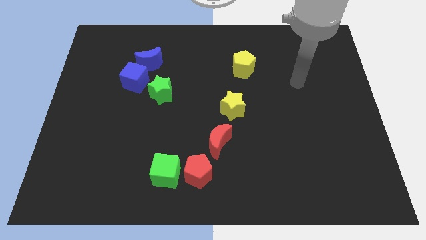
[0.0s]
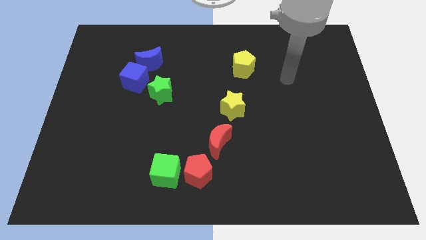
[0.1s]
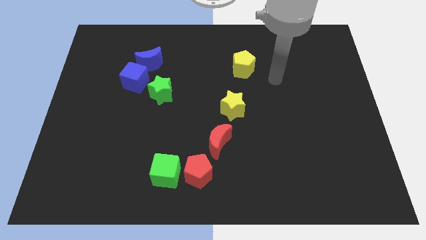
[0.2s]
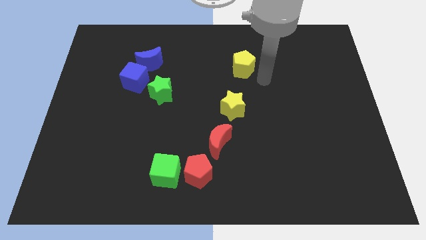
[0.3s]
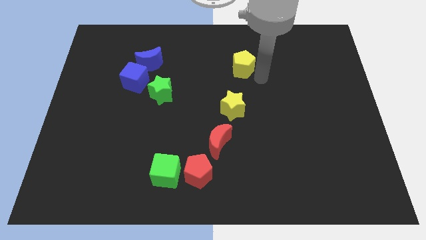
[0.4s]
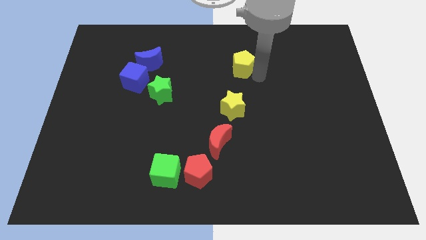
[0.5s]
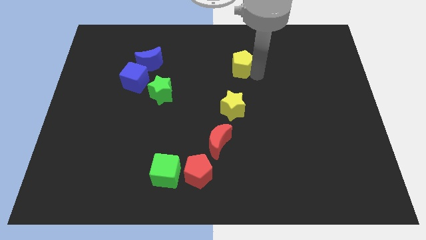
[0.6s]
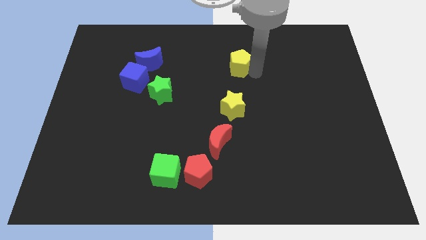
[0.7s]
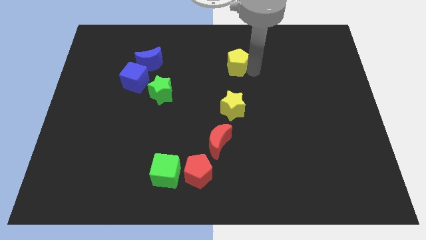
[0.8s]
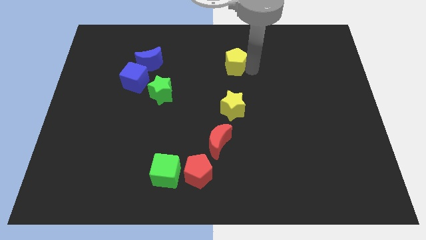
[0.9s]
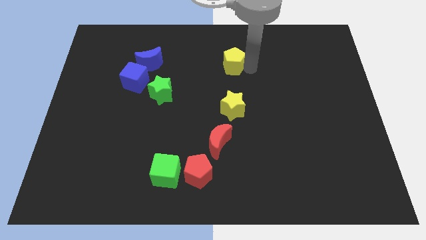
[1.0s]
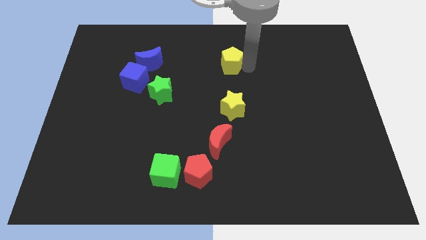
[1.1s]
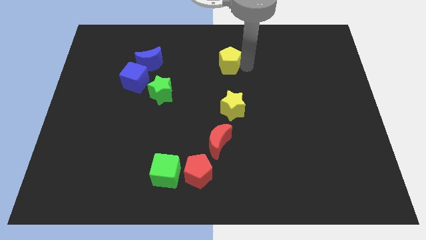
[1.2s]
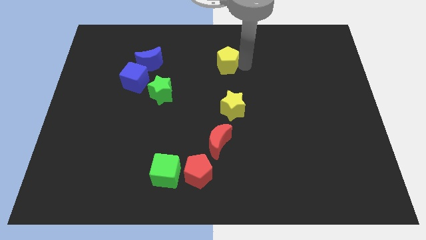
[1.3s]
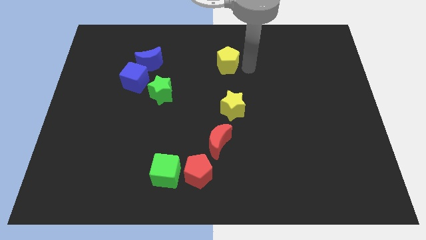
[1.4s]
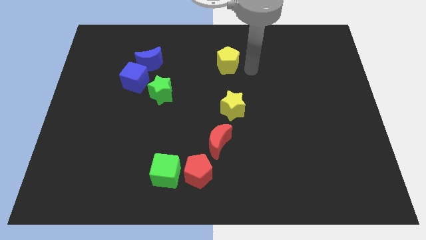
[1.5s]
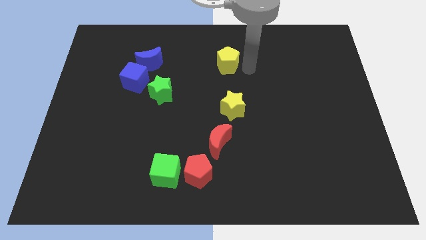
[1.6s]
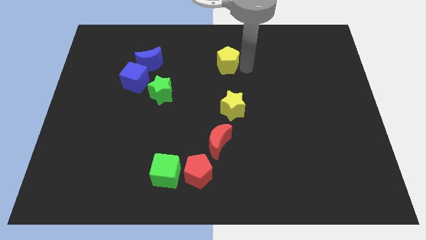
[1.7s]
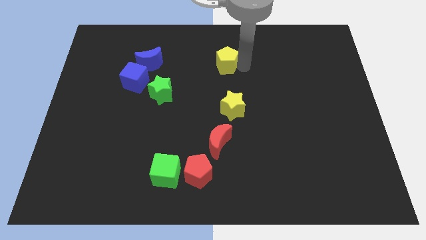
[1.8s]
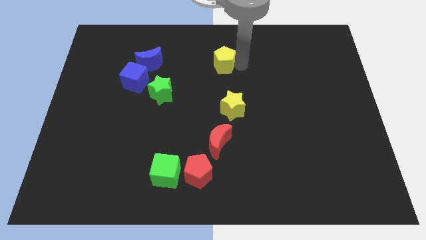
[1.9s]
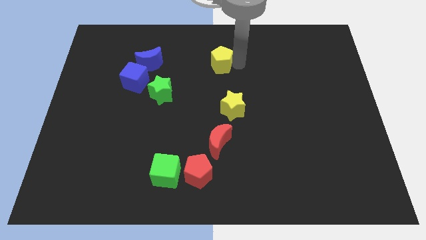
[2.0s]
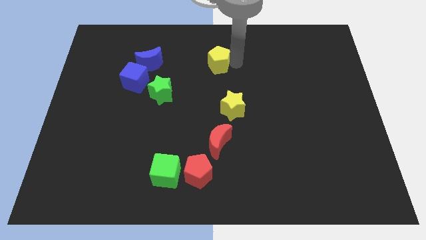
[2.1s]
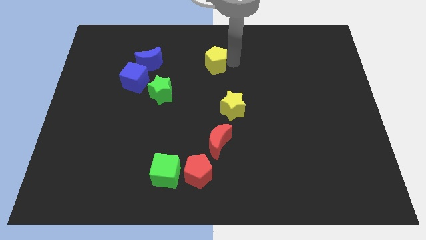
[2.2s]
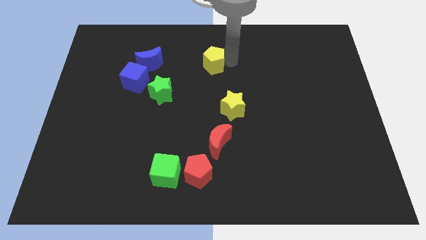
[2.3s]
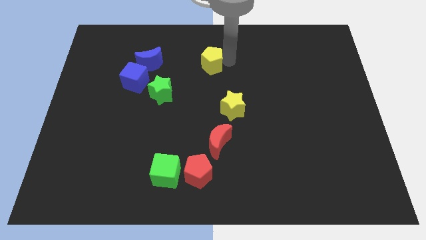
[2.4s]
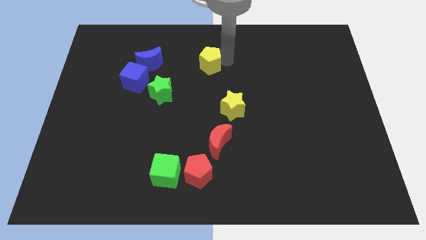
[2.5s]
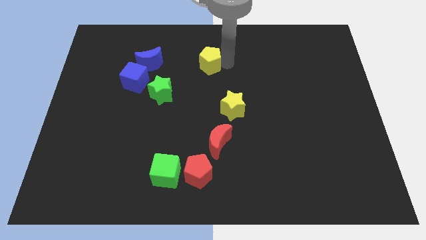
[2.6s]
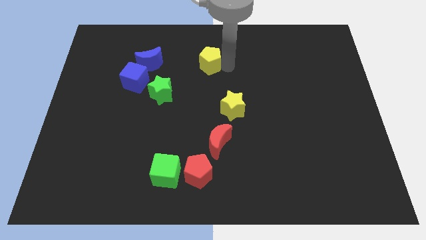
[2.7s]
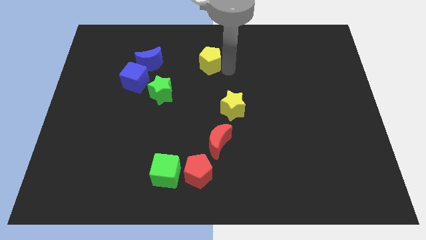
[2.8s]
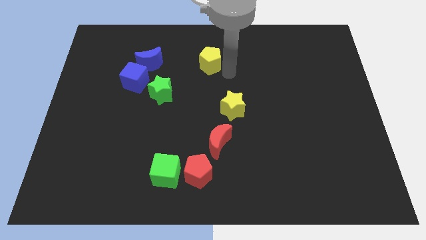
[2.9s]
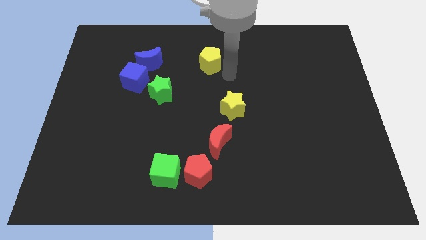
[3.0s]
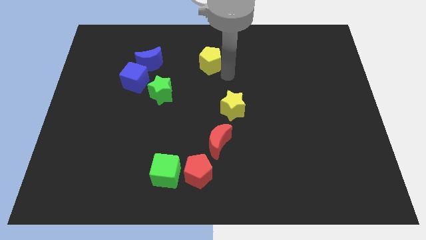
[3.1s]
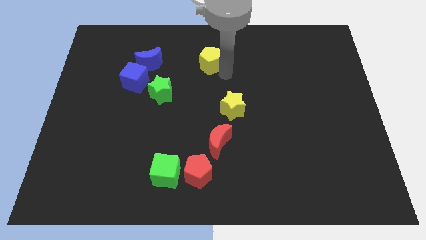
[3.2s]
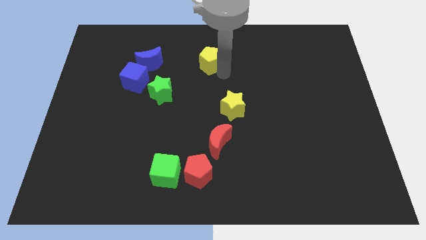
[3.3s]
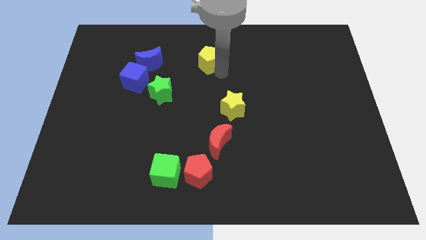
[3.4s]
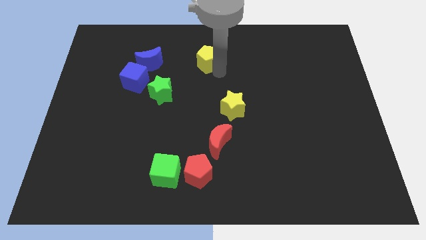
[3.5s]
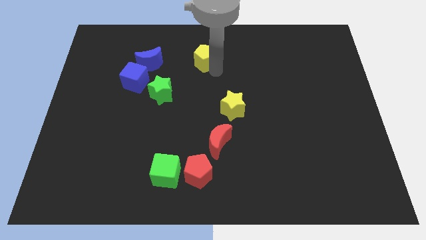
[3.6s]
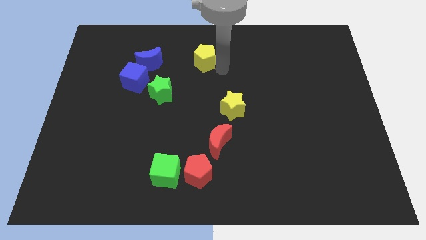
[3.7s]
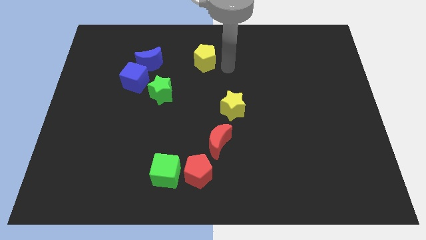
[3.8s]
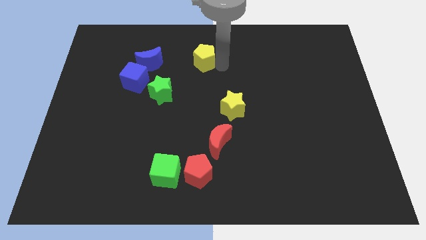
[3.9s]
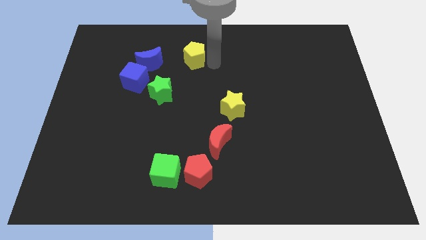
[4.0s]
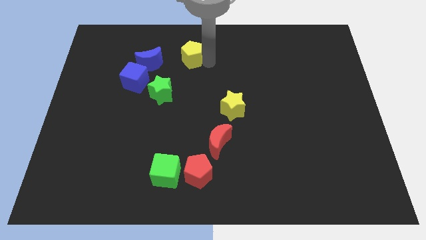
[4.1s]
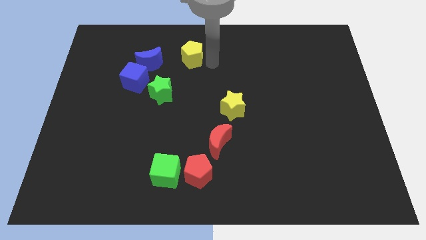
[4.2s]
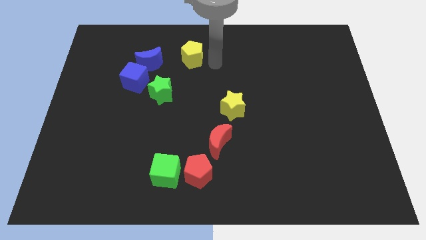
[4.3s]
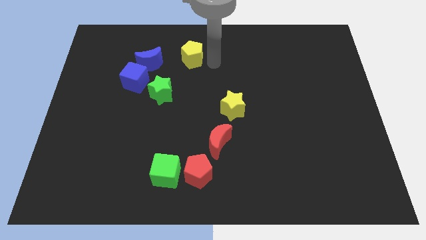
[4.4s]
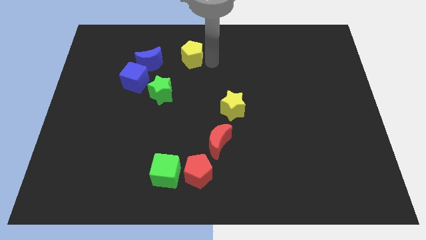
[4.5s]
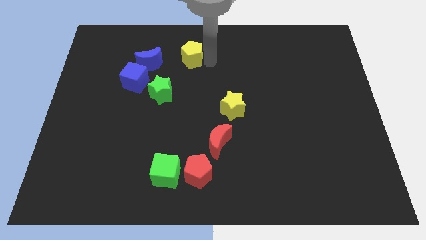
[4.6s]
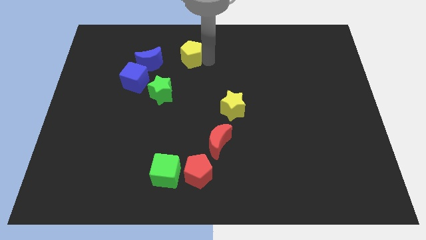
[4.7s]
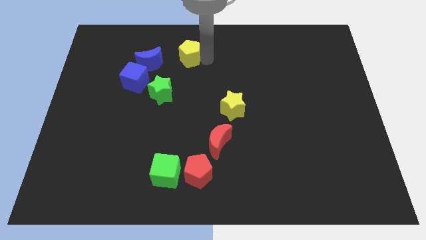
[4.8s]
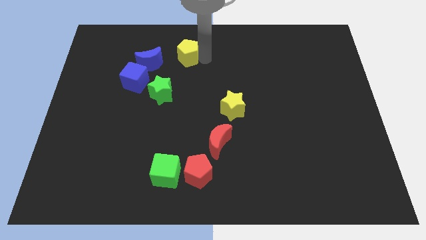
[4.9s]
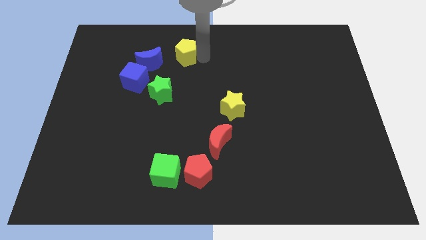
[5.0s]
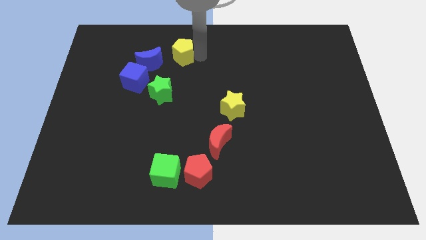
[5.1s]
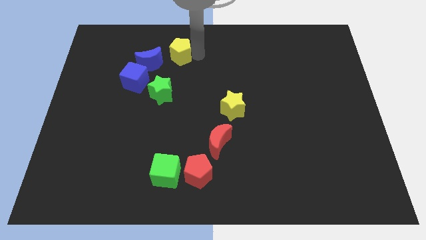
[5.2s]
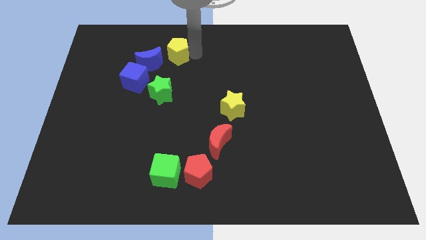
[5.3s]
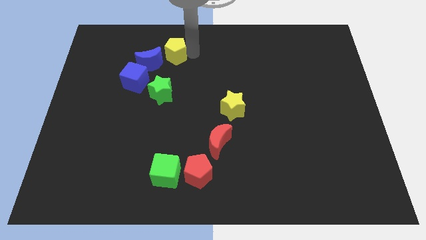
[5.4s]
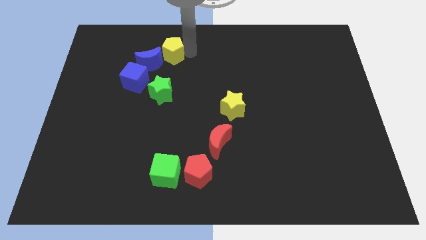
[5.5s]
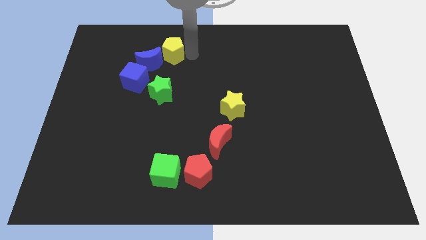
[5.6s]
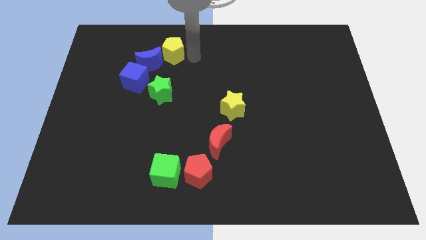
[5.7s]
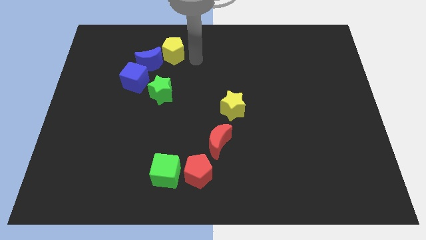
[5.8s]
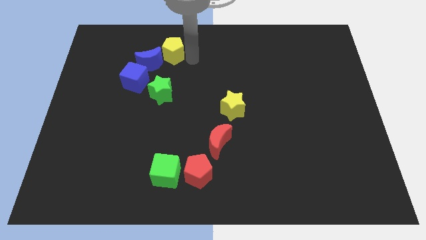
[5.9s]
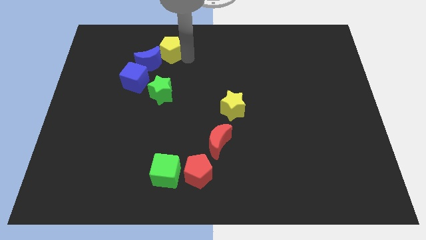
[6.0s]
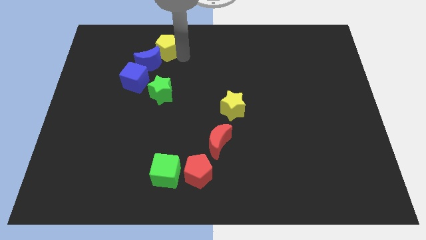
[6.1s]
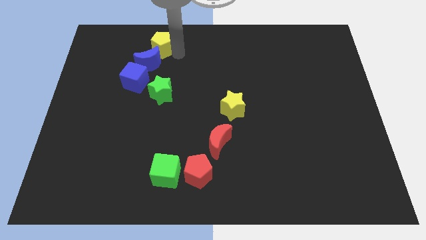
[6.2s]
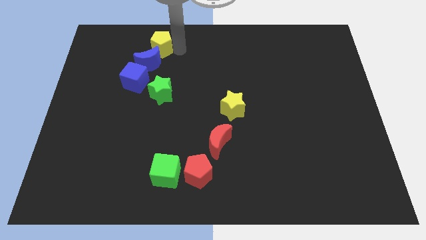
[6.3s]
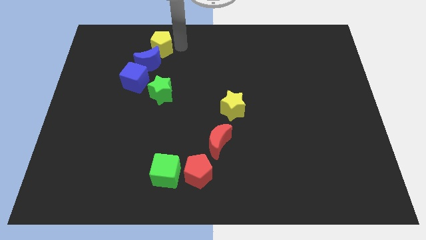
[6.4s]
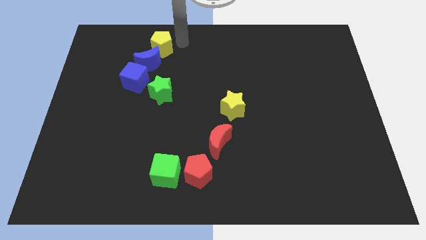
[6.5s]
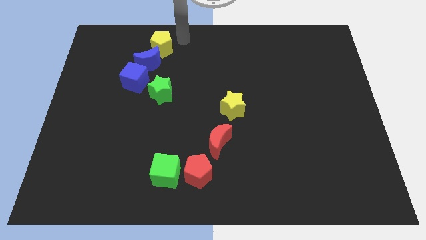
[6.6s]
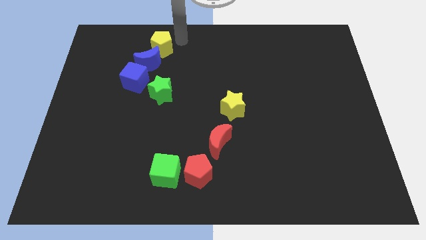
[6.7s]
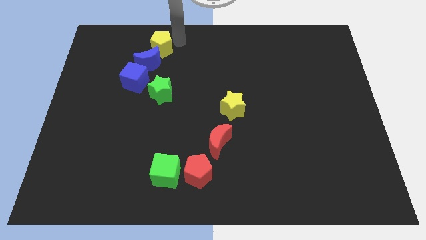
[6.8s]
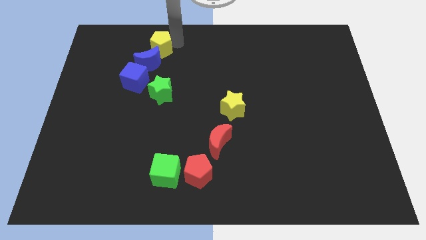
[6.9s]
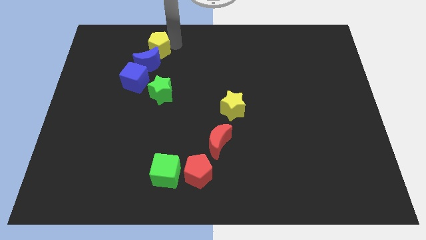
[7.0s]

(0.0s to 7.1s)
push the yellow pentagon left

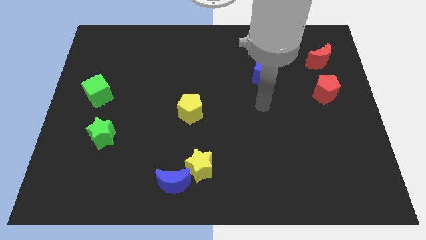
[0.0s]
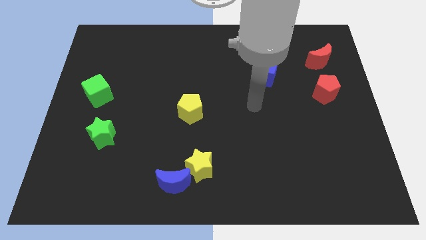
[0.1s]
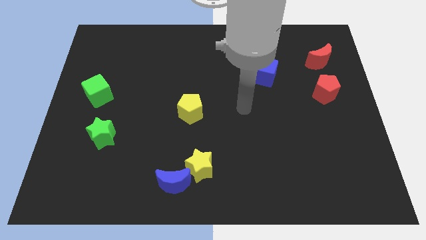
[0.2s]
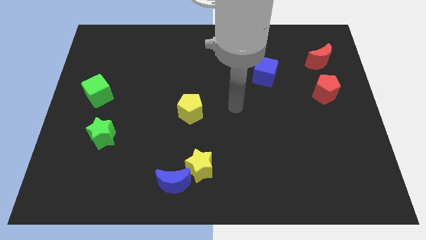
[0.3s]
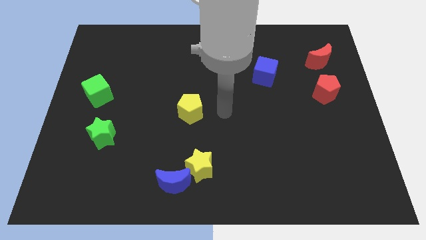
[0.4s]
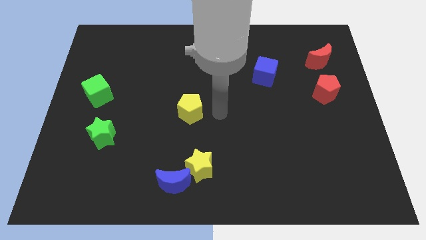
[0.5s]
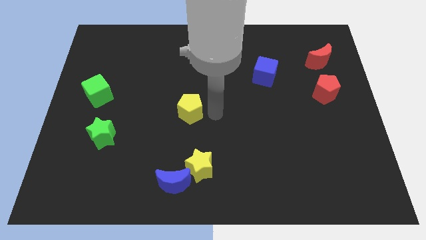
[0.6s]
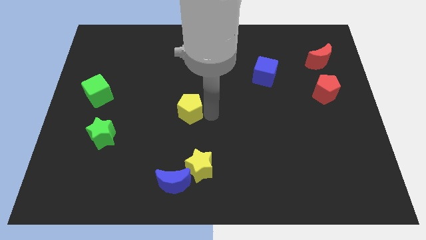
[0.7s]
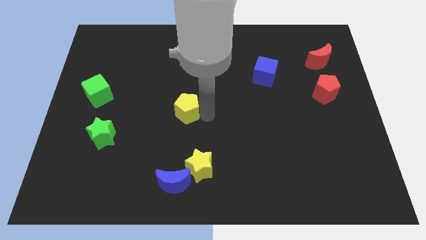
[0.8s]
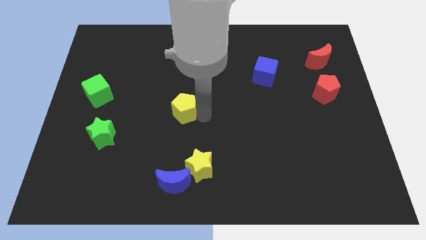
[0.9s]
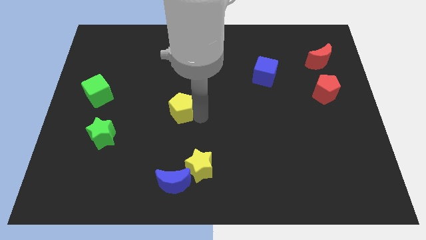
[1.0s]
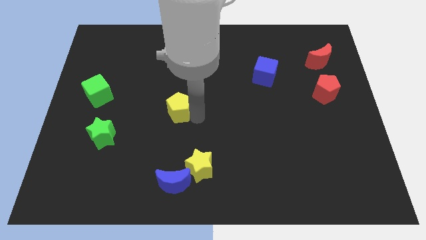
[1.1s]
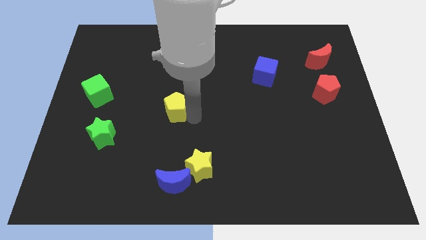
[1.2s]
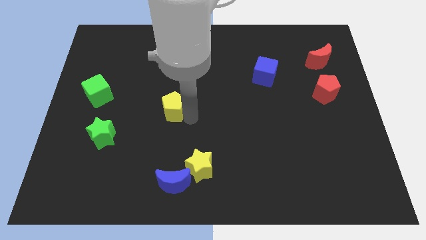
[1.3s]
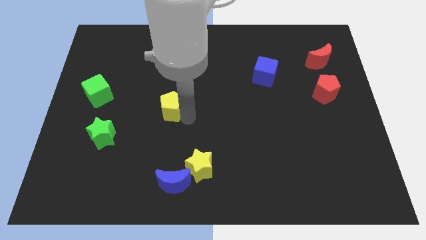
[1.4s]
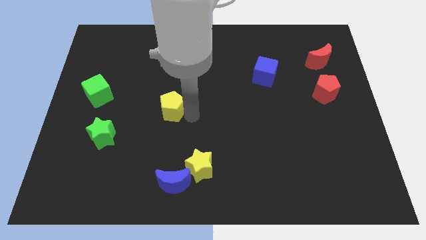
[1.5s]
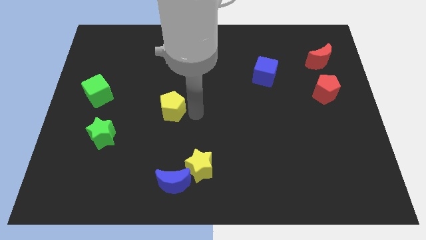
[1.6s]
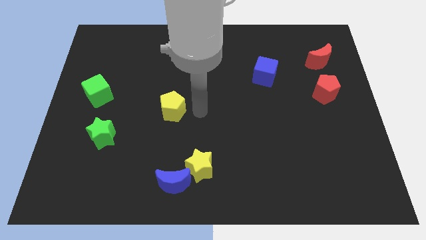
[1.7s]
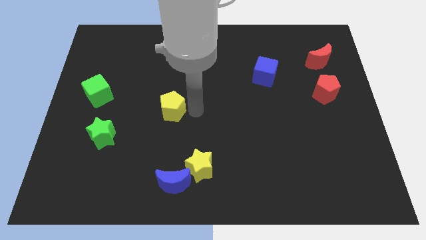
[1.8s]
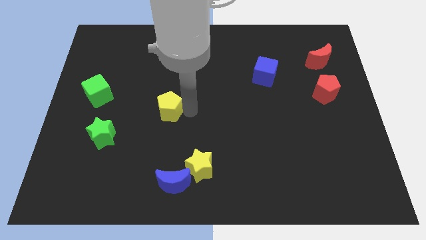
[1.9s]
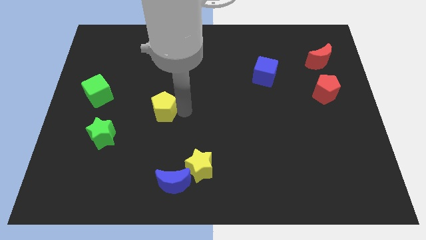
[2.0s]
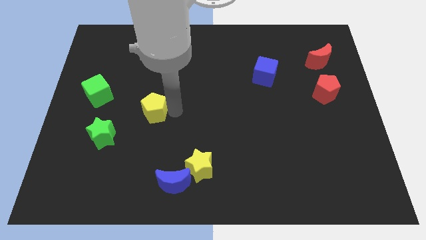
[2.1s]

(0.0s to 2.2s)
move the yellow pentagon a little to the left
